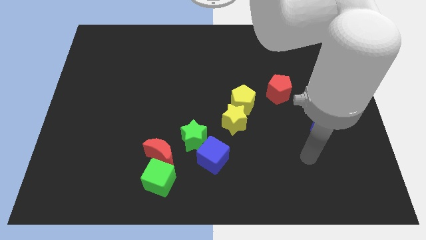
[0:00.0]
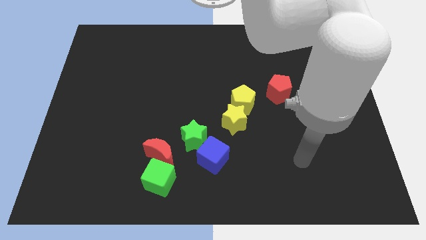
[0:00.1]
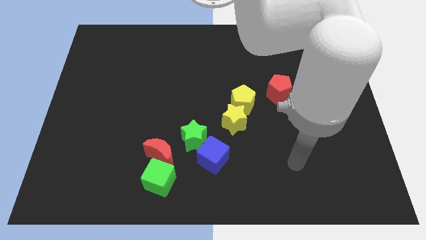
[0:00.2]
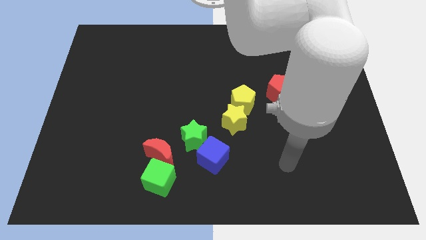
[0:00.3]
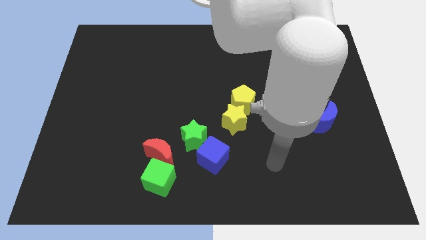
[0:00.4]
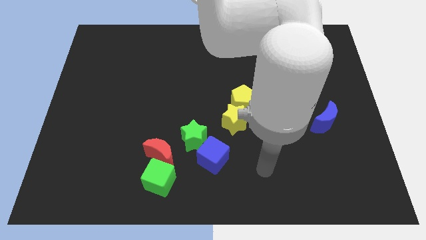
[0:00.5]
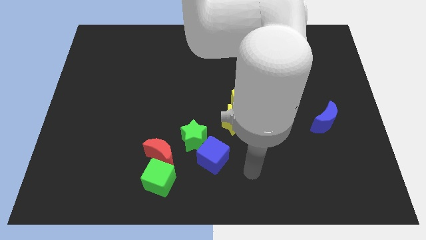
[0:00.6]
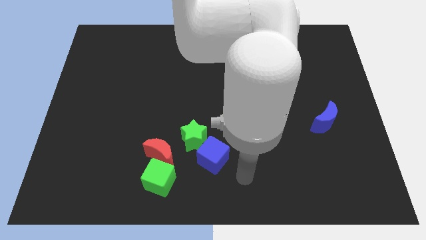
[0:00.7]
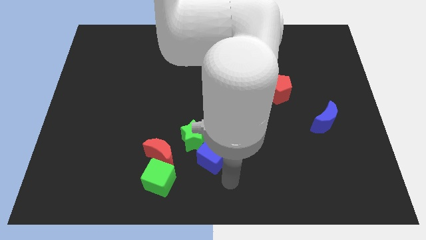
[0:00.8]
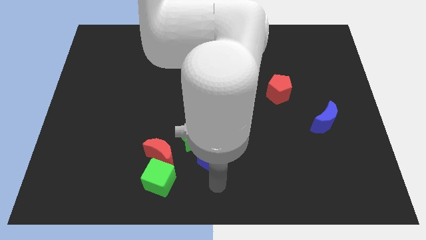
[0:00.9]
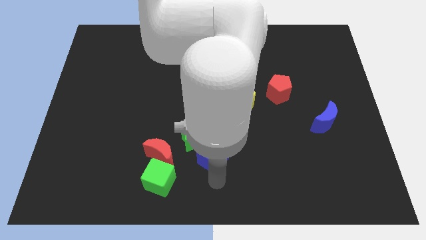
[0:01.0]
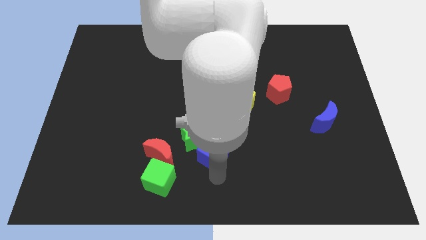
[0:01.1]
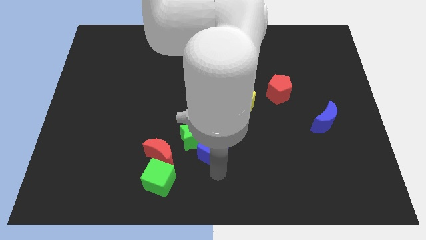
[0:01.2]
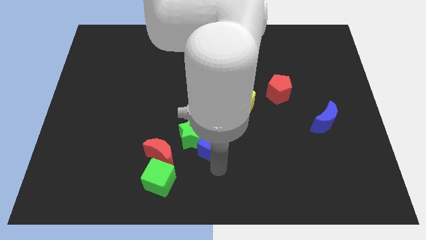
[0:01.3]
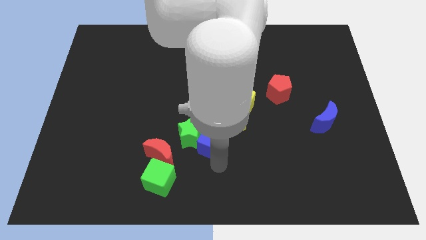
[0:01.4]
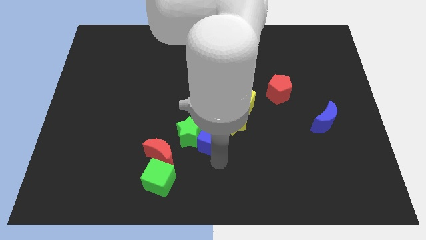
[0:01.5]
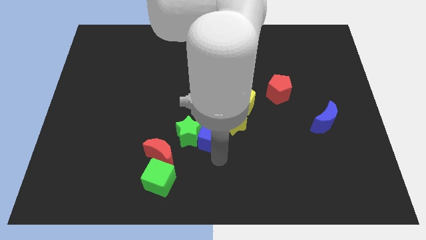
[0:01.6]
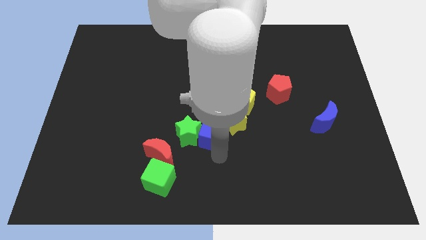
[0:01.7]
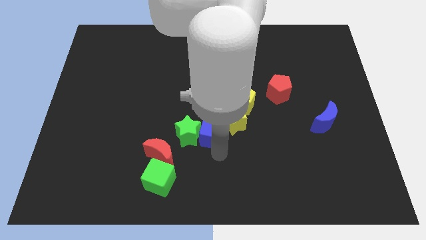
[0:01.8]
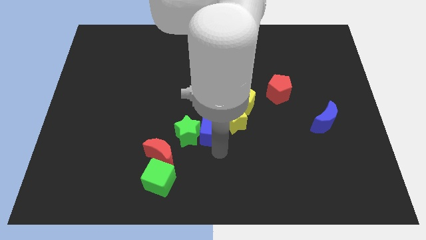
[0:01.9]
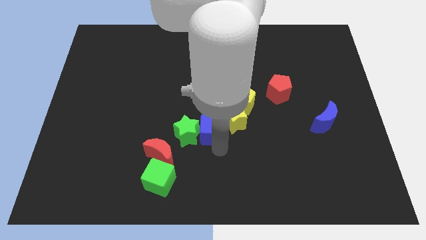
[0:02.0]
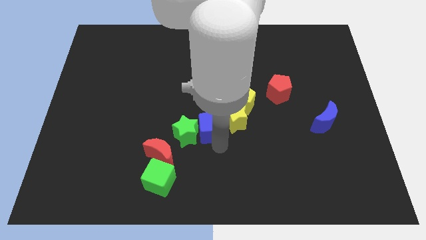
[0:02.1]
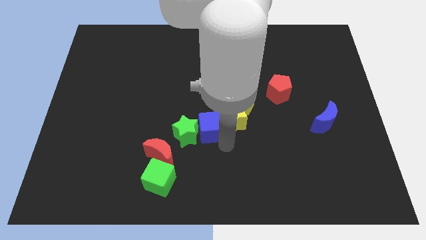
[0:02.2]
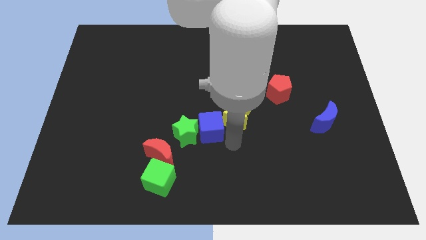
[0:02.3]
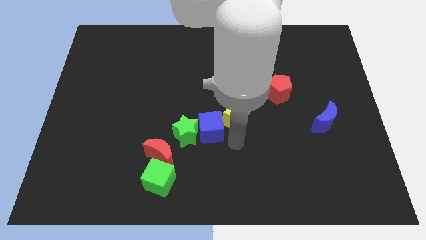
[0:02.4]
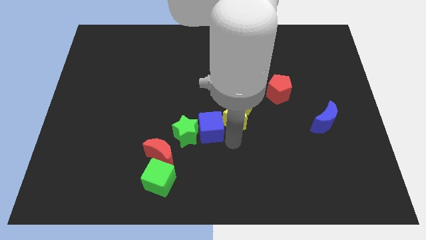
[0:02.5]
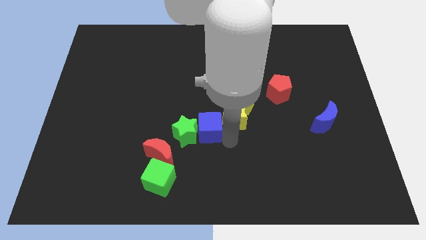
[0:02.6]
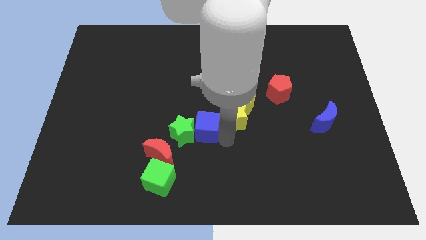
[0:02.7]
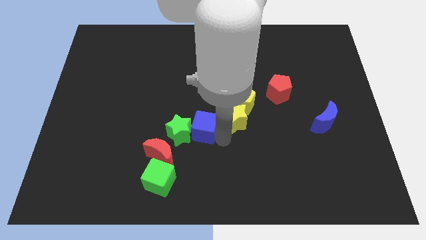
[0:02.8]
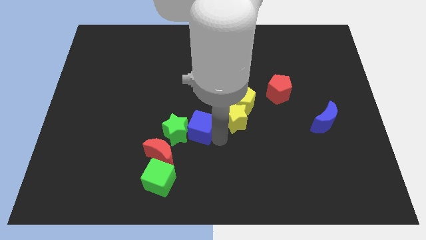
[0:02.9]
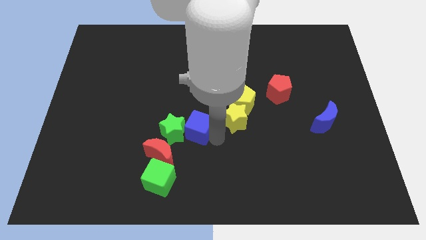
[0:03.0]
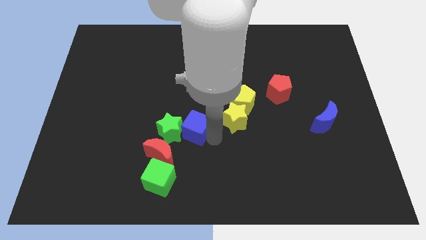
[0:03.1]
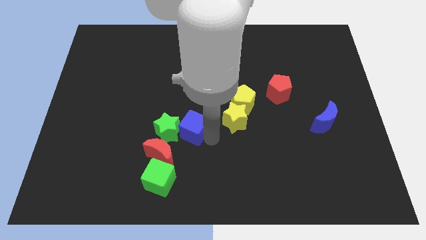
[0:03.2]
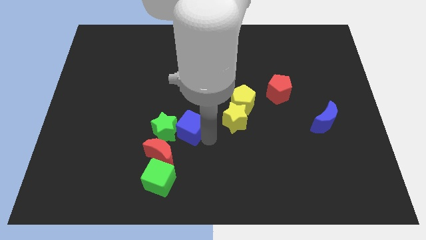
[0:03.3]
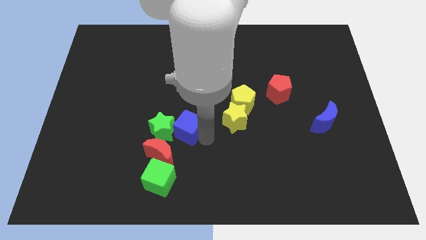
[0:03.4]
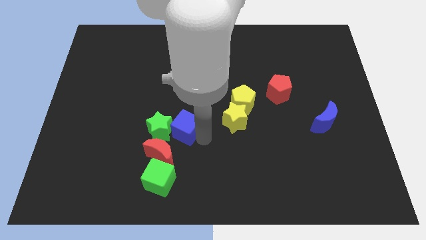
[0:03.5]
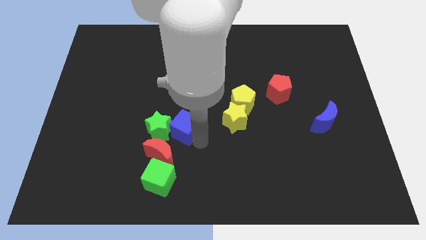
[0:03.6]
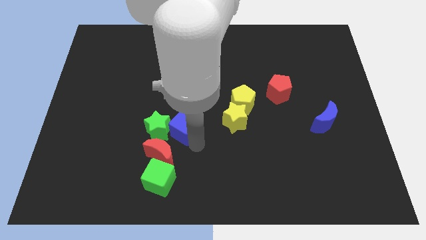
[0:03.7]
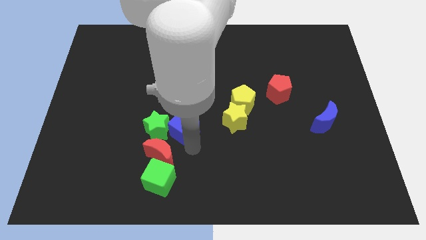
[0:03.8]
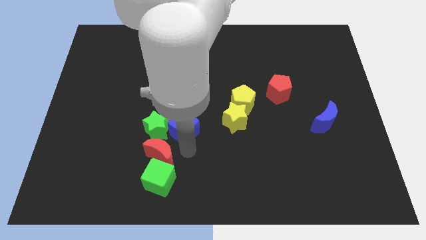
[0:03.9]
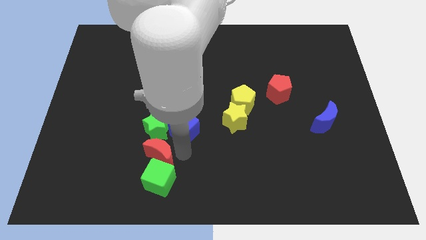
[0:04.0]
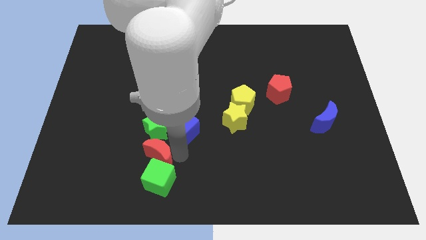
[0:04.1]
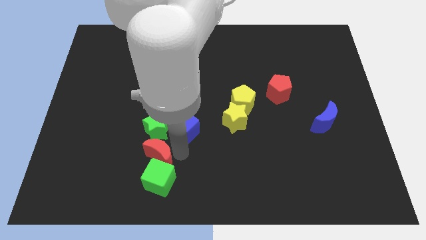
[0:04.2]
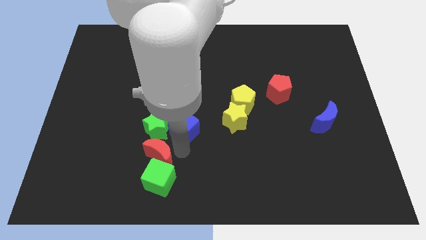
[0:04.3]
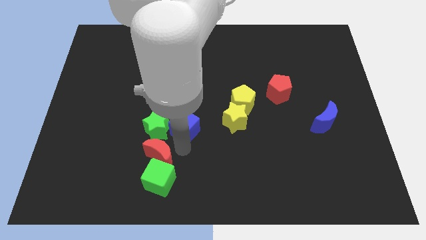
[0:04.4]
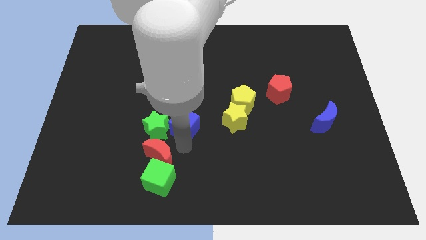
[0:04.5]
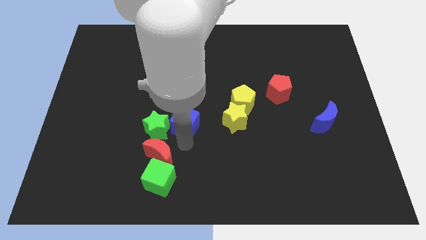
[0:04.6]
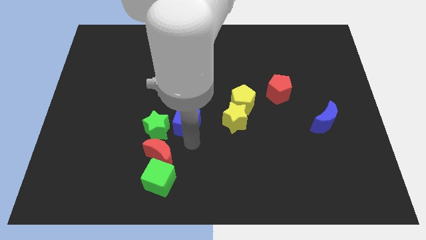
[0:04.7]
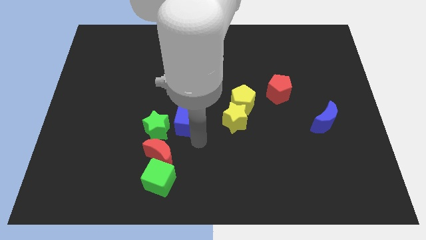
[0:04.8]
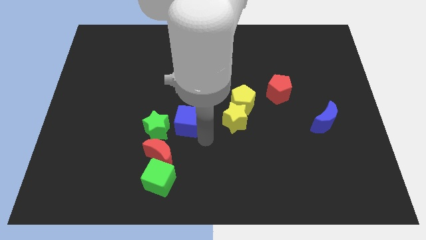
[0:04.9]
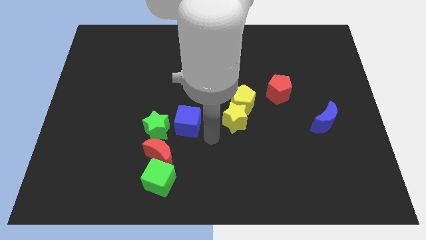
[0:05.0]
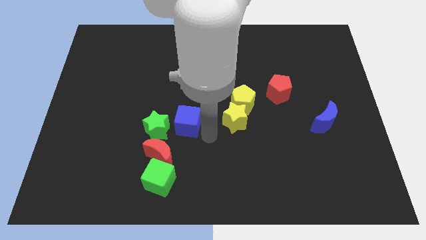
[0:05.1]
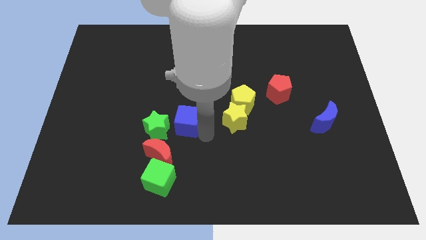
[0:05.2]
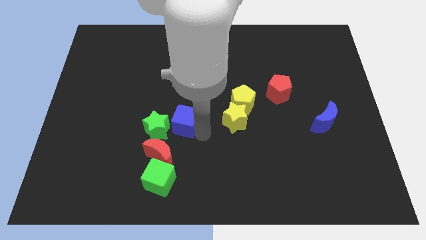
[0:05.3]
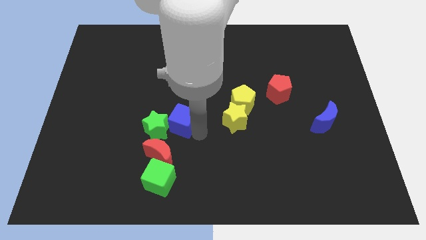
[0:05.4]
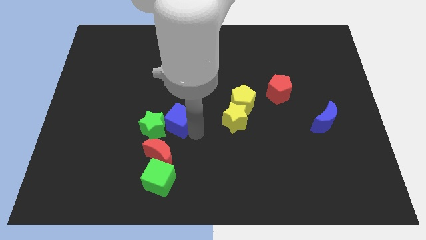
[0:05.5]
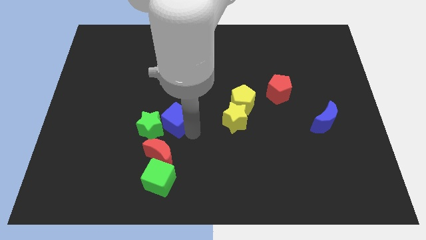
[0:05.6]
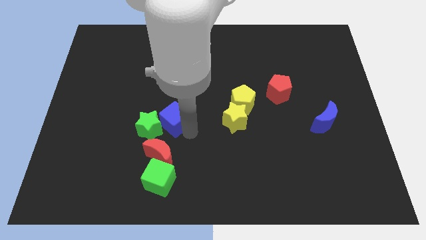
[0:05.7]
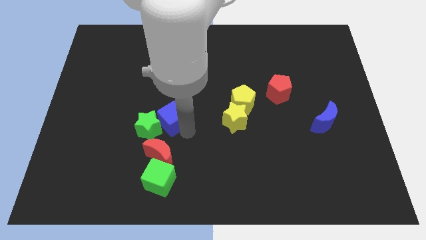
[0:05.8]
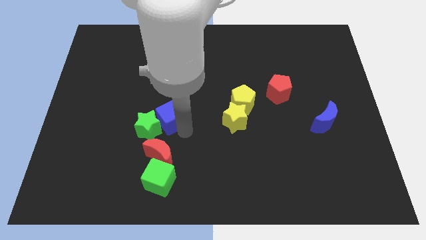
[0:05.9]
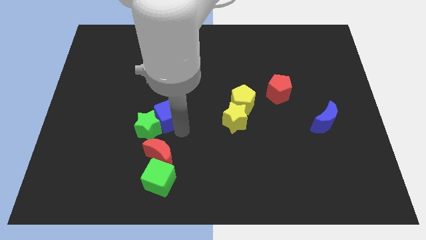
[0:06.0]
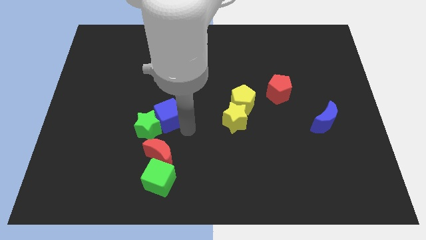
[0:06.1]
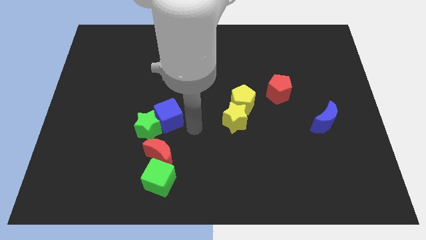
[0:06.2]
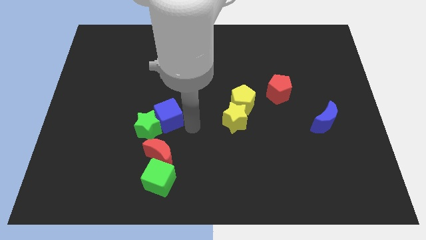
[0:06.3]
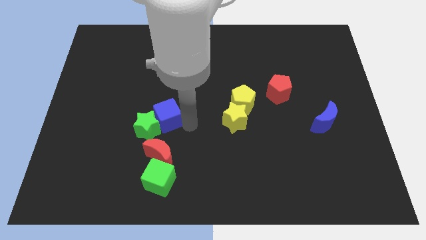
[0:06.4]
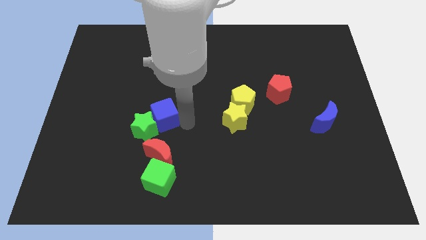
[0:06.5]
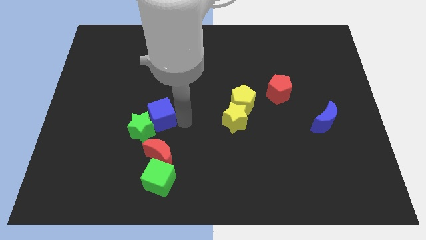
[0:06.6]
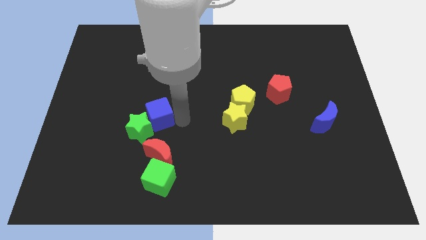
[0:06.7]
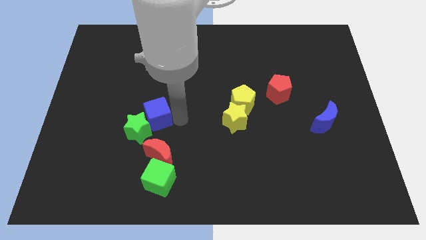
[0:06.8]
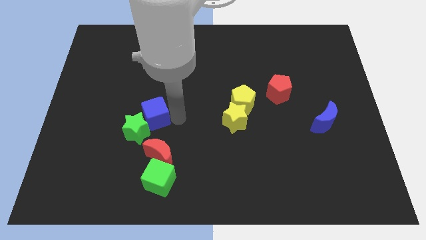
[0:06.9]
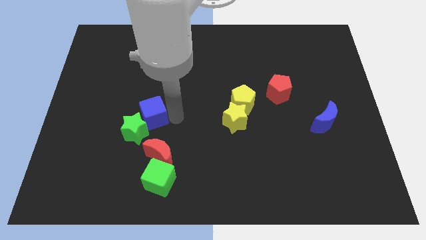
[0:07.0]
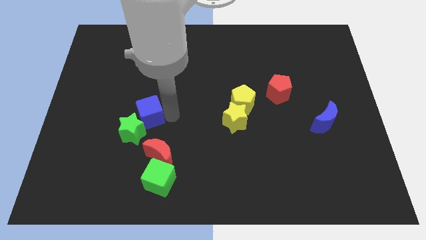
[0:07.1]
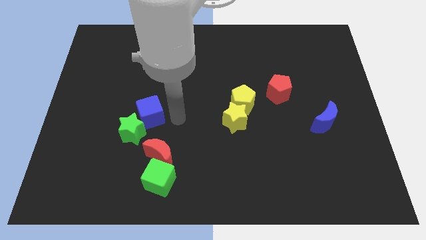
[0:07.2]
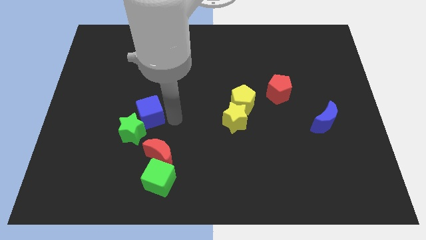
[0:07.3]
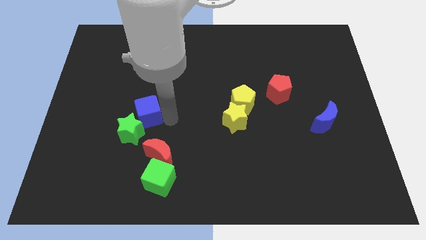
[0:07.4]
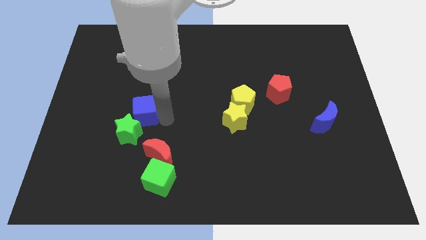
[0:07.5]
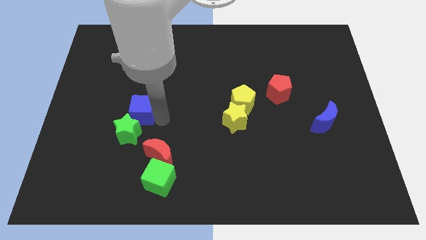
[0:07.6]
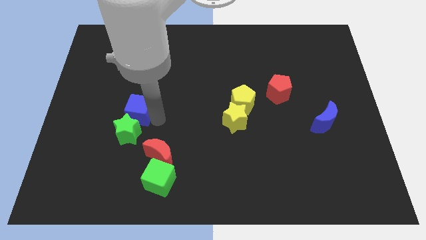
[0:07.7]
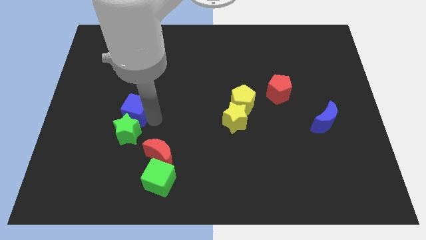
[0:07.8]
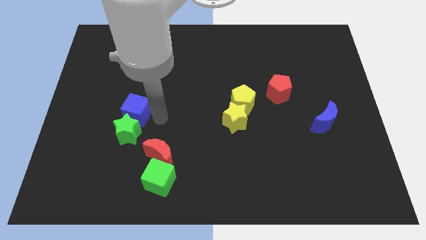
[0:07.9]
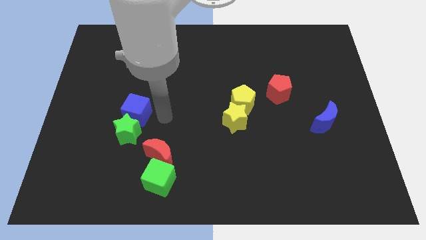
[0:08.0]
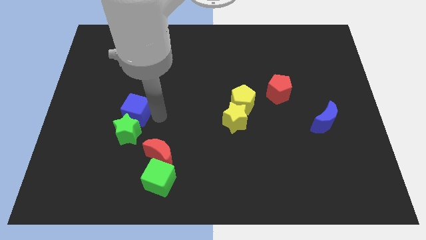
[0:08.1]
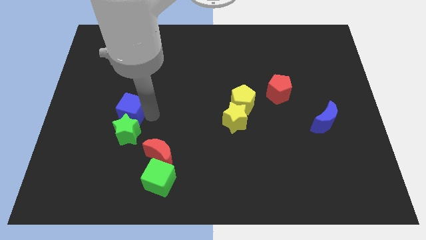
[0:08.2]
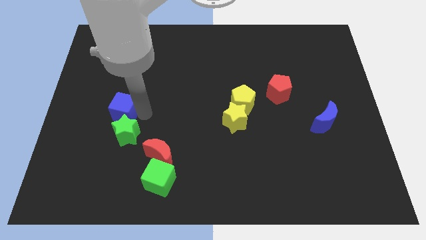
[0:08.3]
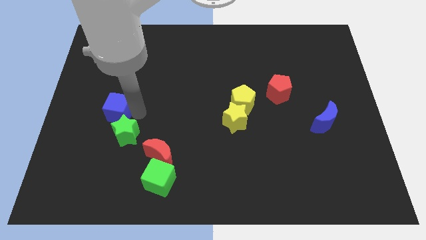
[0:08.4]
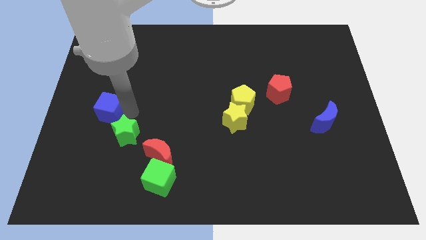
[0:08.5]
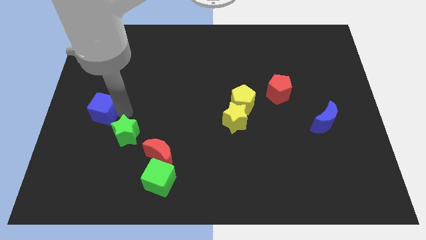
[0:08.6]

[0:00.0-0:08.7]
push the blue cube to the center left
